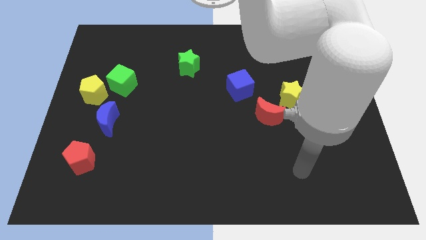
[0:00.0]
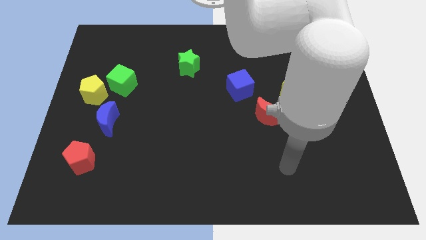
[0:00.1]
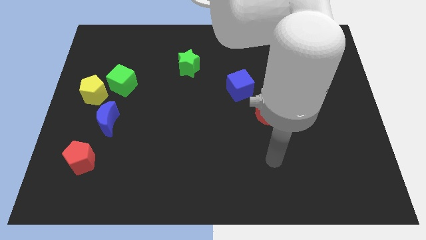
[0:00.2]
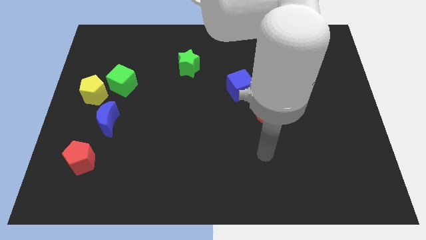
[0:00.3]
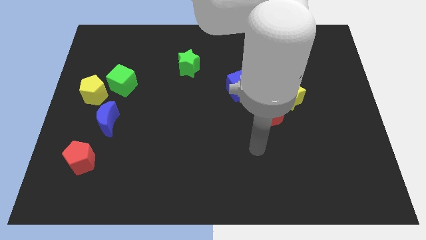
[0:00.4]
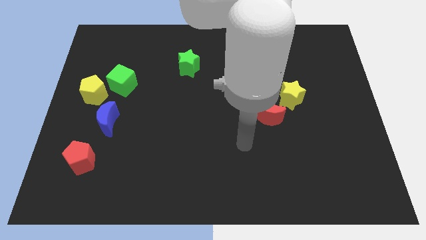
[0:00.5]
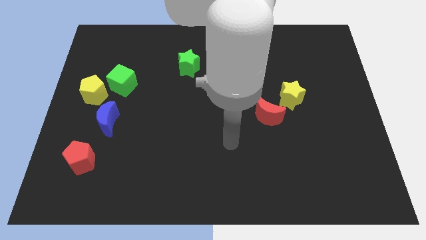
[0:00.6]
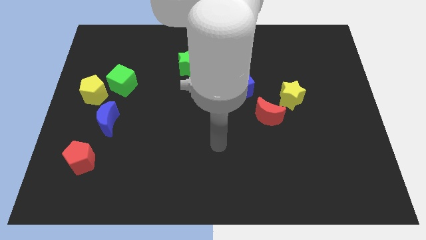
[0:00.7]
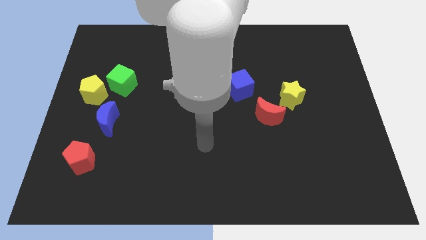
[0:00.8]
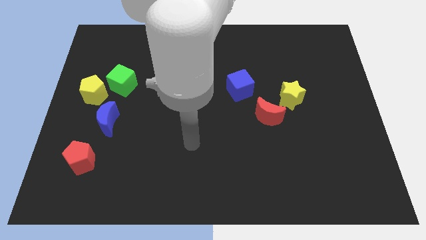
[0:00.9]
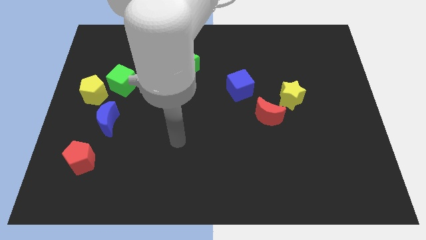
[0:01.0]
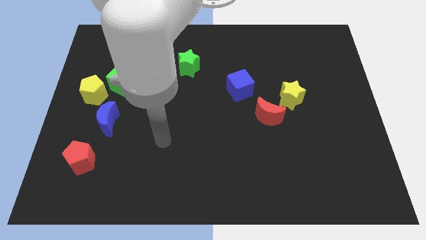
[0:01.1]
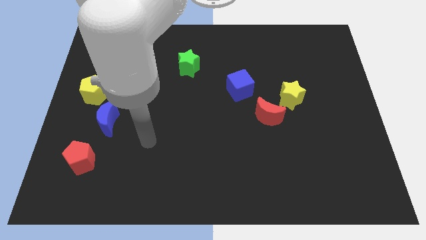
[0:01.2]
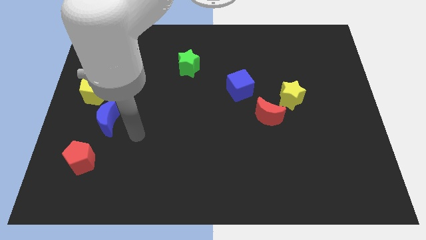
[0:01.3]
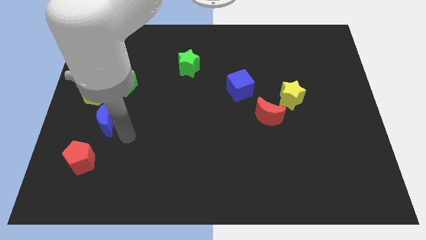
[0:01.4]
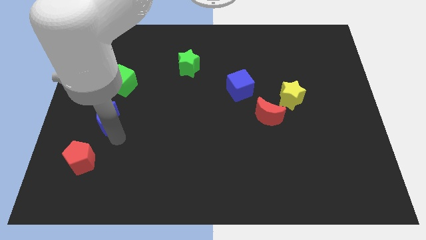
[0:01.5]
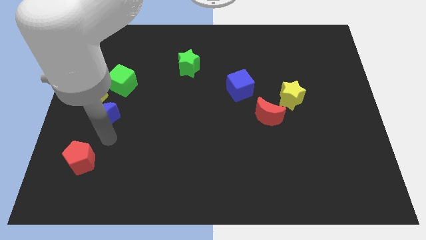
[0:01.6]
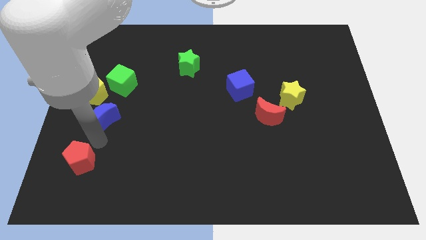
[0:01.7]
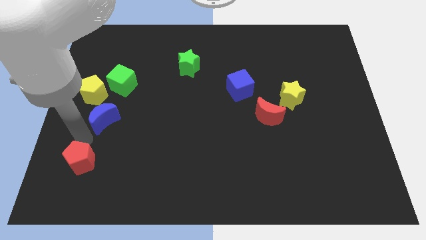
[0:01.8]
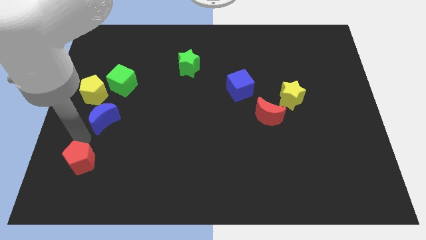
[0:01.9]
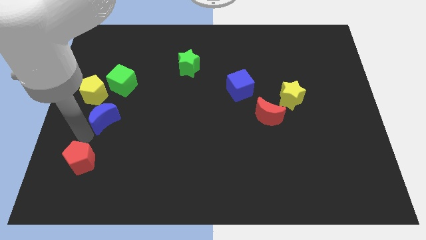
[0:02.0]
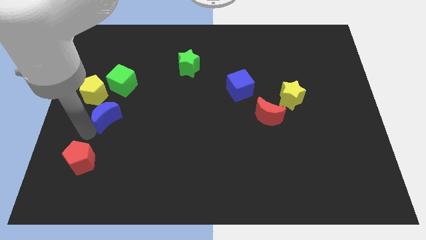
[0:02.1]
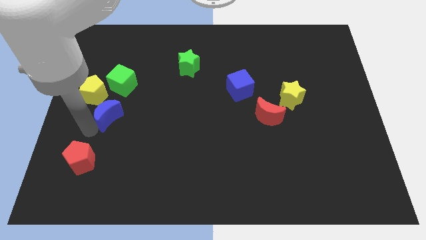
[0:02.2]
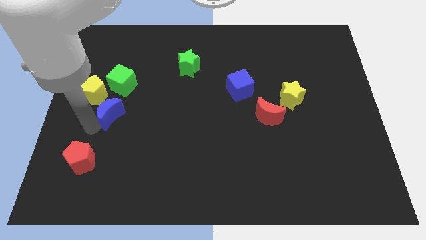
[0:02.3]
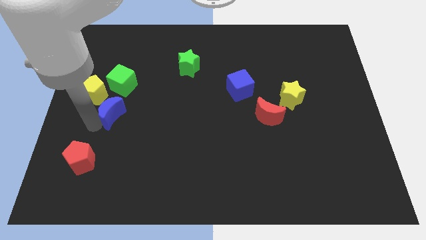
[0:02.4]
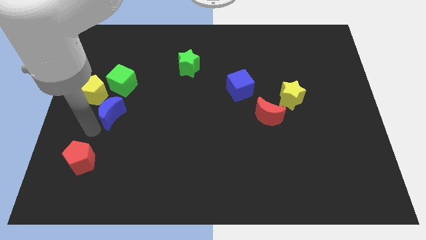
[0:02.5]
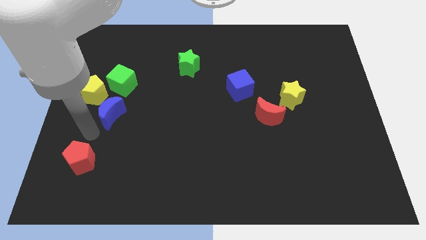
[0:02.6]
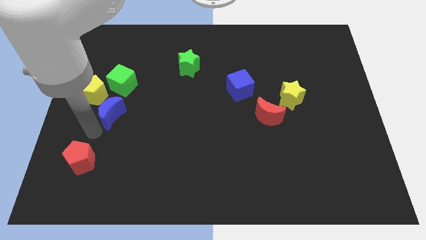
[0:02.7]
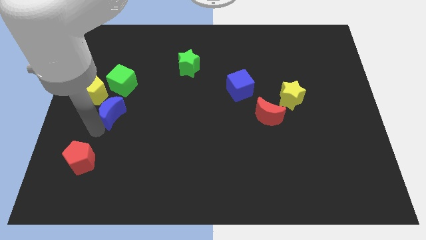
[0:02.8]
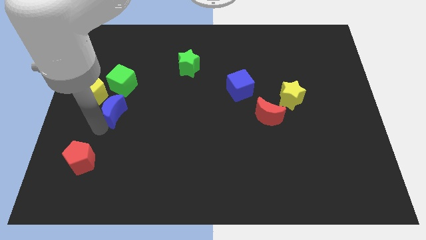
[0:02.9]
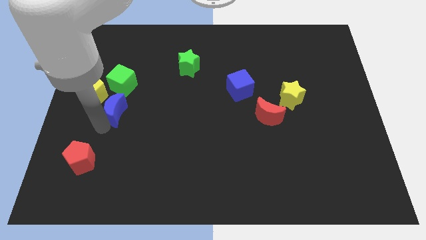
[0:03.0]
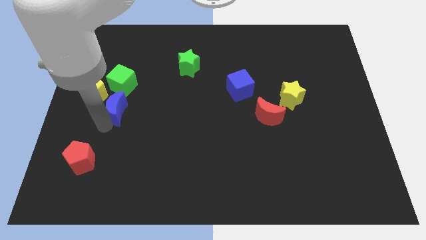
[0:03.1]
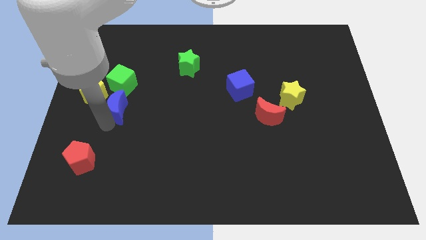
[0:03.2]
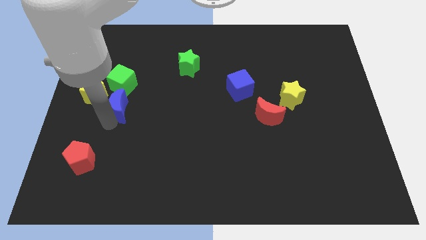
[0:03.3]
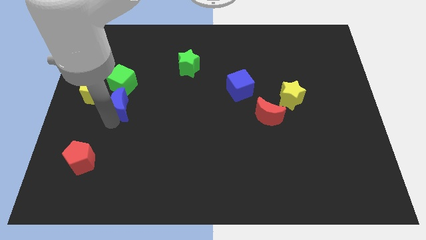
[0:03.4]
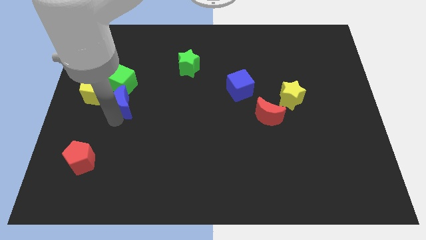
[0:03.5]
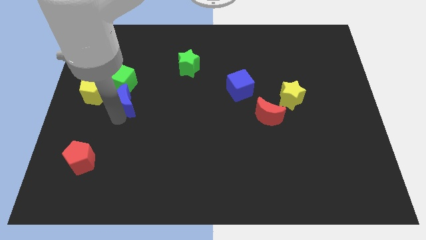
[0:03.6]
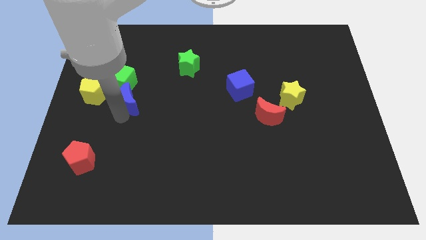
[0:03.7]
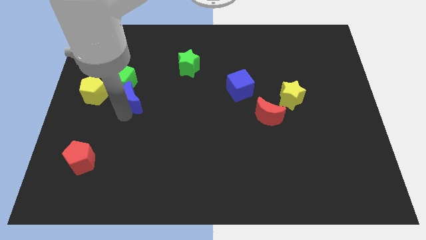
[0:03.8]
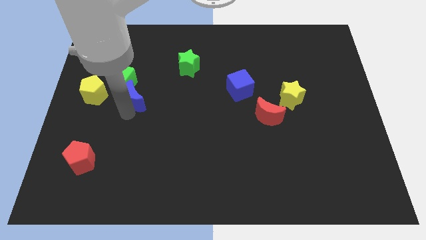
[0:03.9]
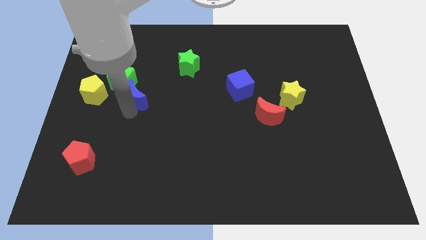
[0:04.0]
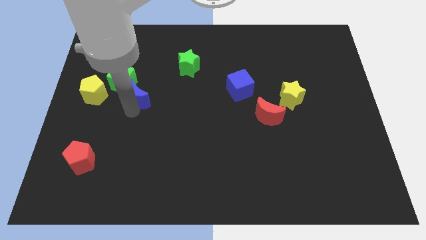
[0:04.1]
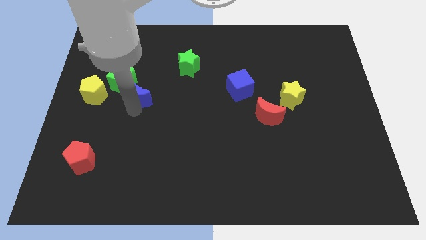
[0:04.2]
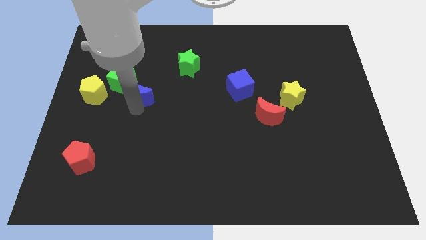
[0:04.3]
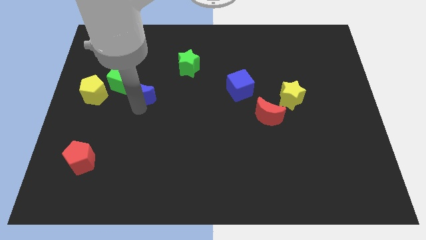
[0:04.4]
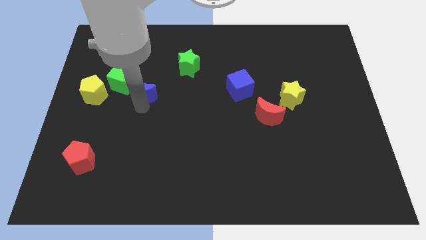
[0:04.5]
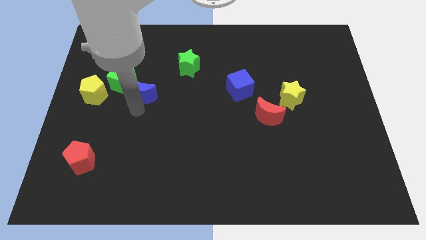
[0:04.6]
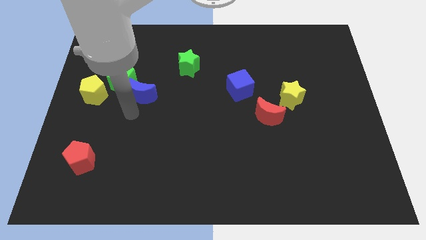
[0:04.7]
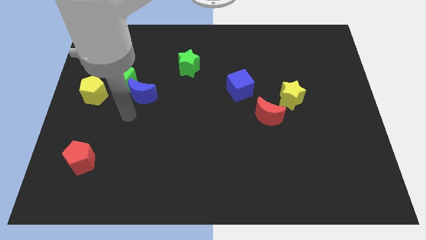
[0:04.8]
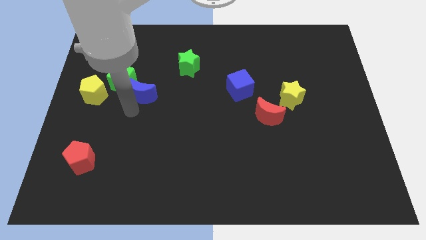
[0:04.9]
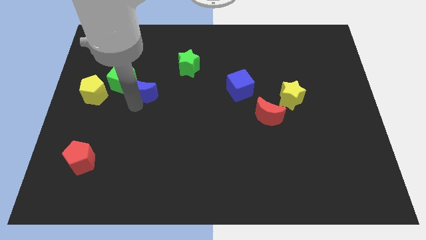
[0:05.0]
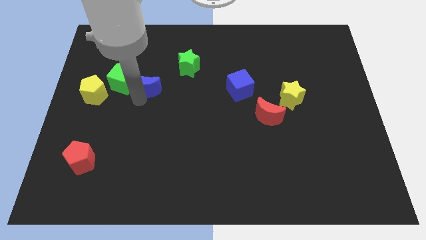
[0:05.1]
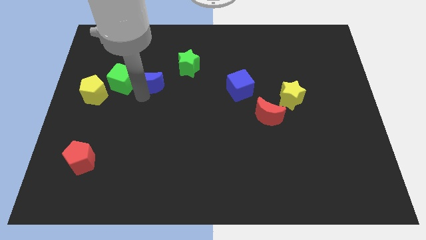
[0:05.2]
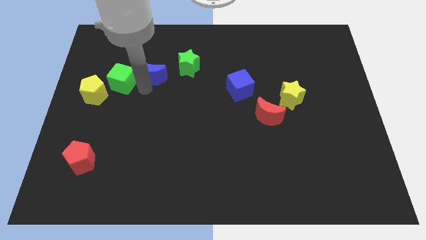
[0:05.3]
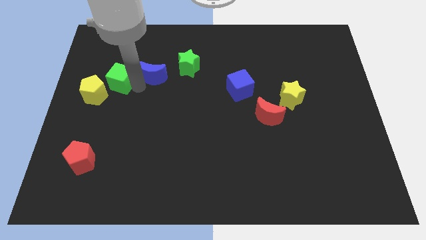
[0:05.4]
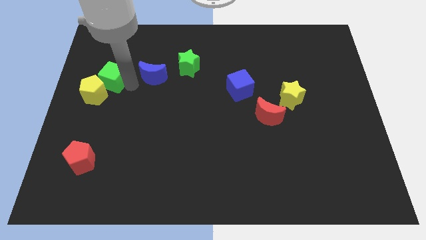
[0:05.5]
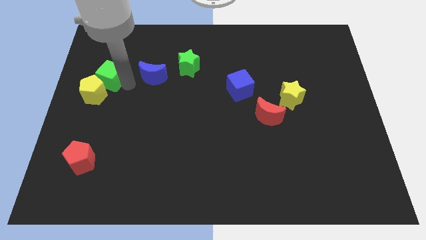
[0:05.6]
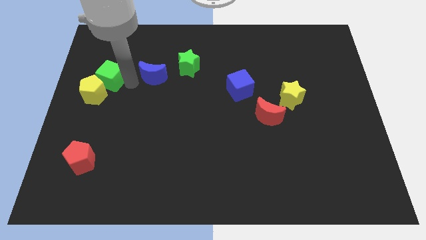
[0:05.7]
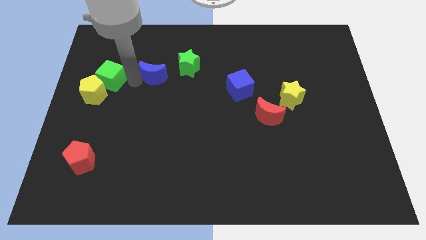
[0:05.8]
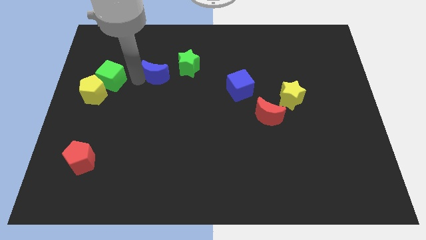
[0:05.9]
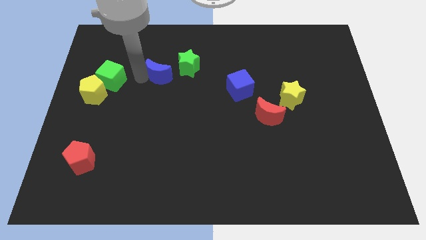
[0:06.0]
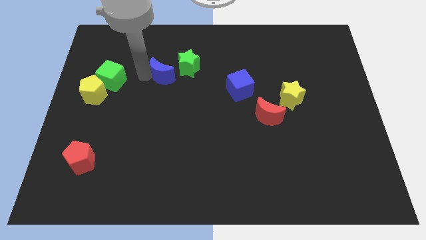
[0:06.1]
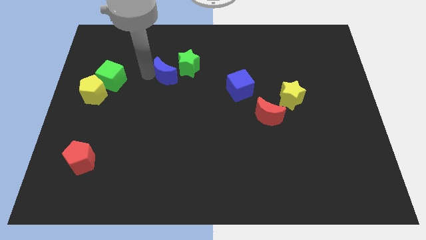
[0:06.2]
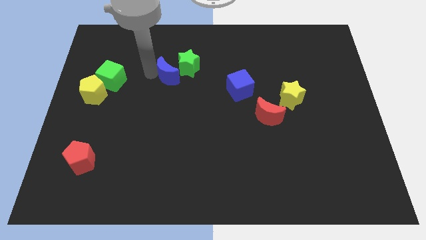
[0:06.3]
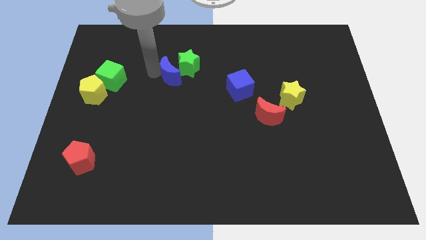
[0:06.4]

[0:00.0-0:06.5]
move the blue moon close to the green star

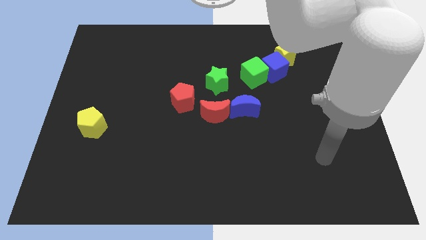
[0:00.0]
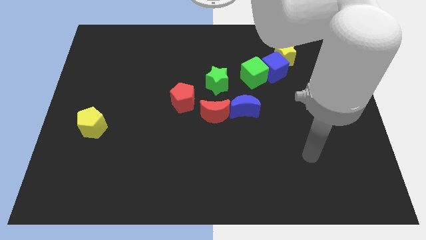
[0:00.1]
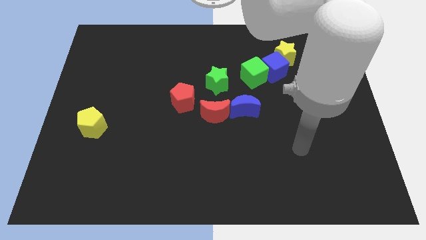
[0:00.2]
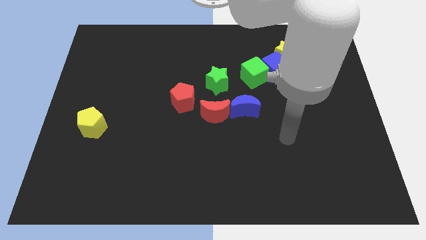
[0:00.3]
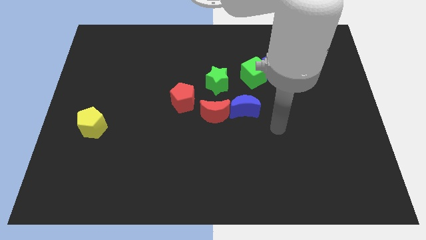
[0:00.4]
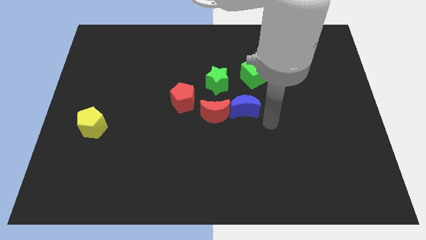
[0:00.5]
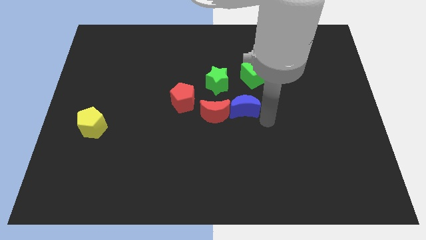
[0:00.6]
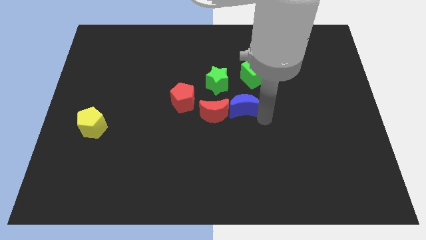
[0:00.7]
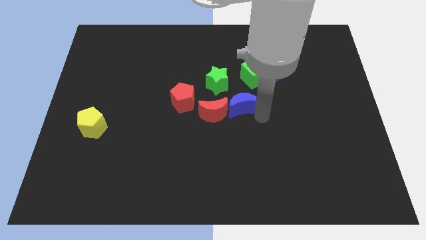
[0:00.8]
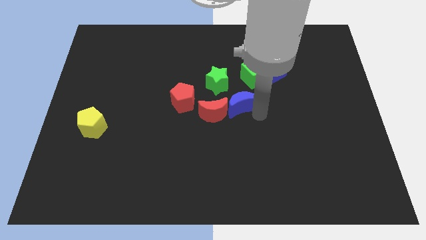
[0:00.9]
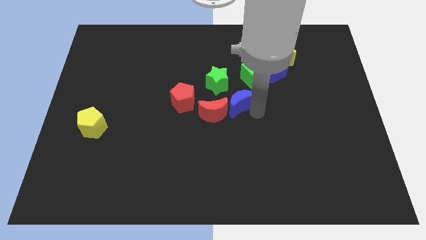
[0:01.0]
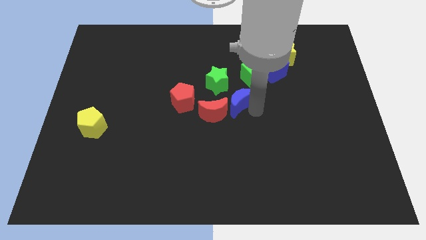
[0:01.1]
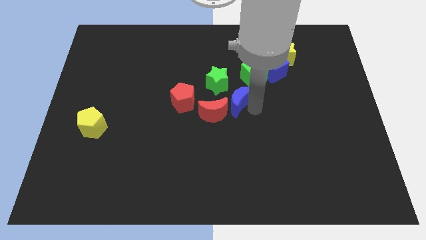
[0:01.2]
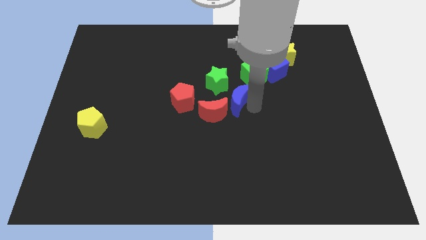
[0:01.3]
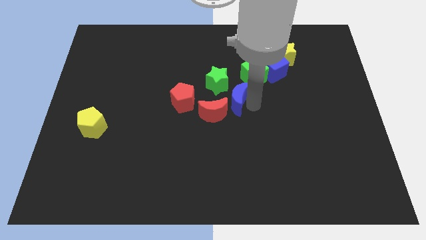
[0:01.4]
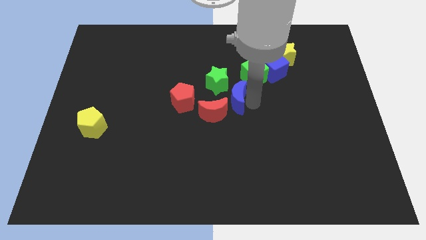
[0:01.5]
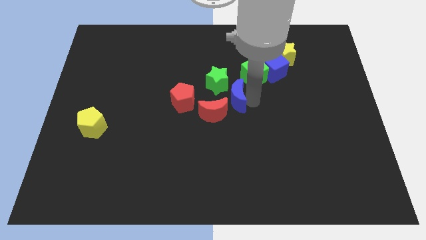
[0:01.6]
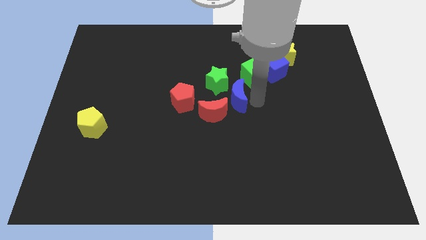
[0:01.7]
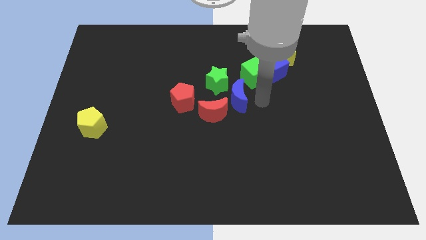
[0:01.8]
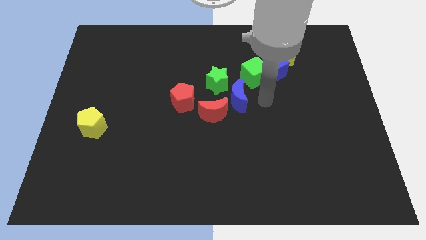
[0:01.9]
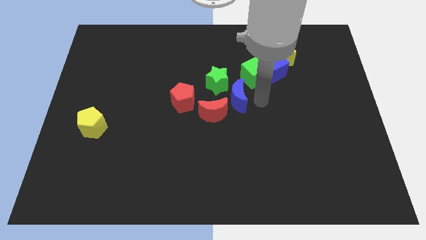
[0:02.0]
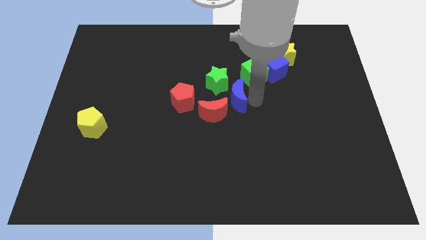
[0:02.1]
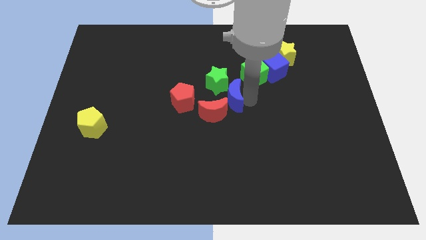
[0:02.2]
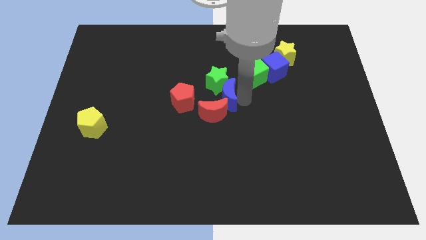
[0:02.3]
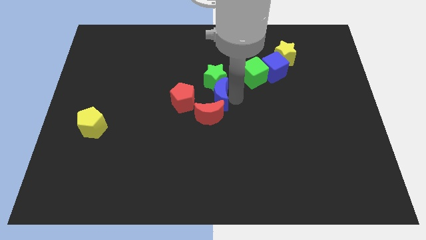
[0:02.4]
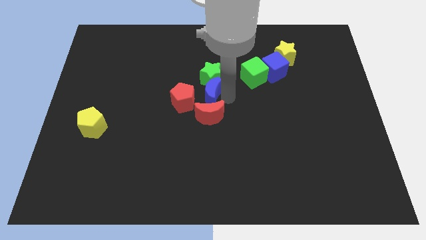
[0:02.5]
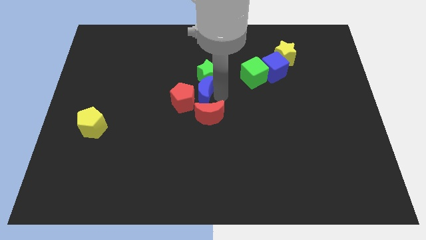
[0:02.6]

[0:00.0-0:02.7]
put the blue moon close to the red pentagon
